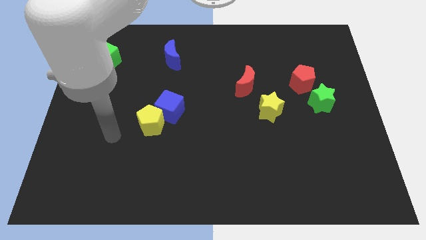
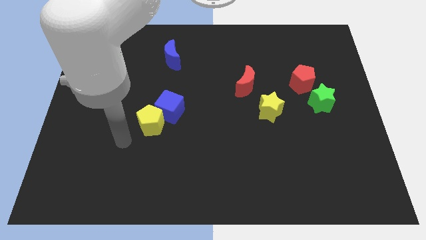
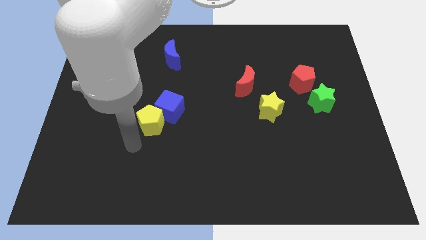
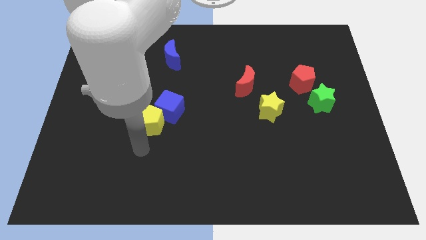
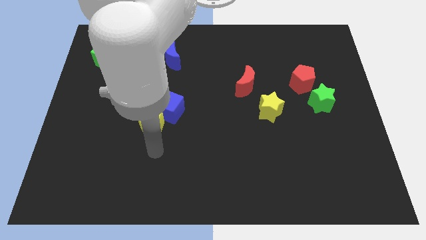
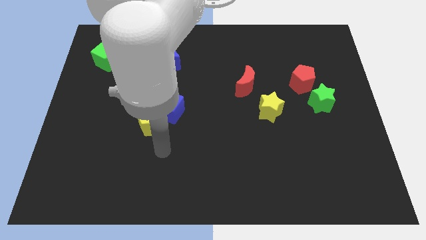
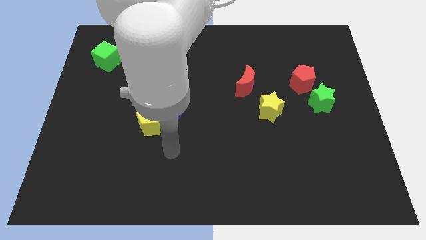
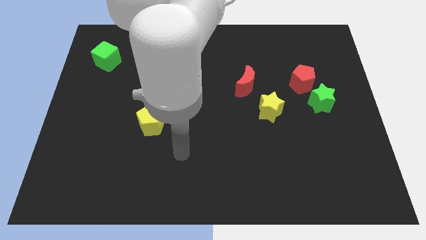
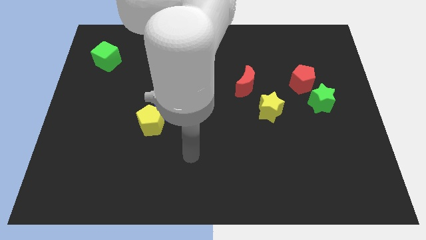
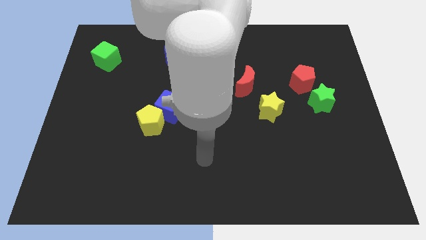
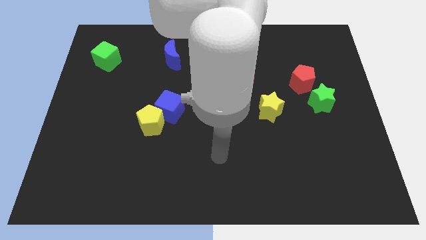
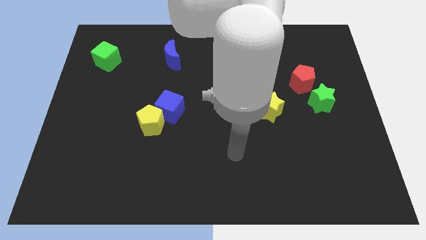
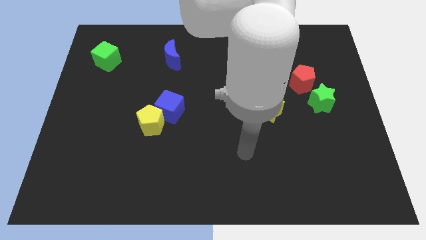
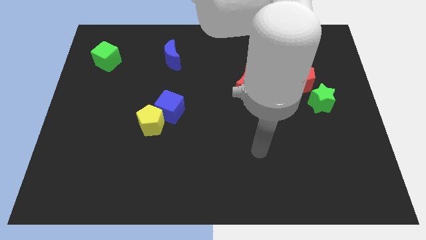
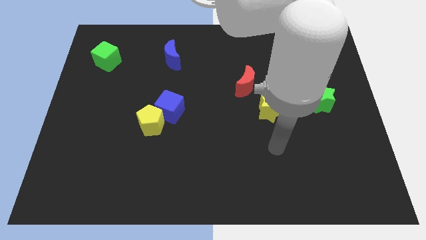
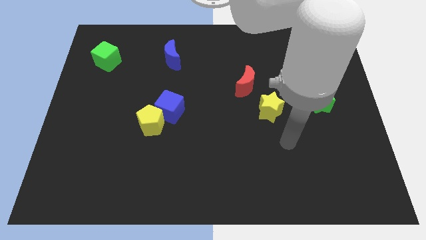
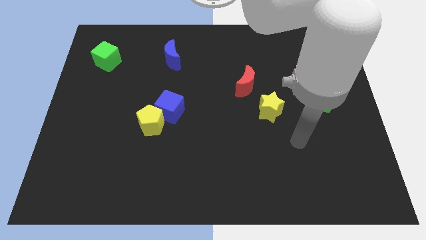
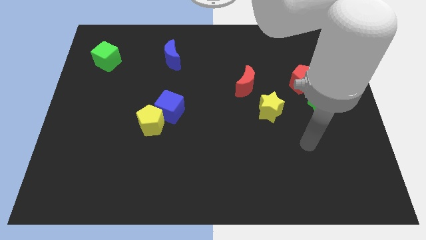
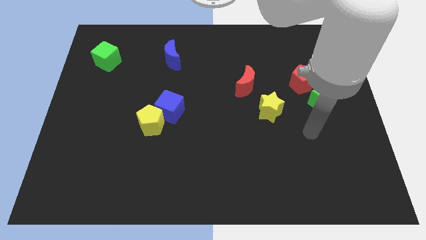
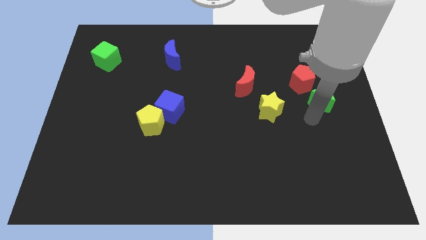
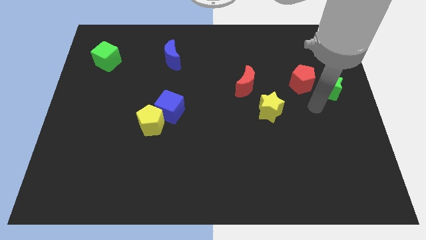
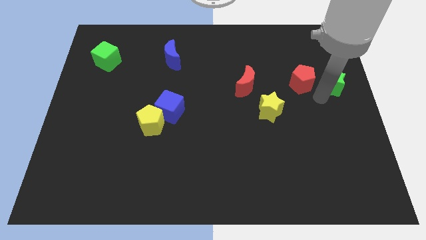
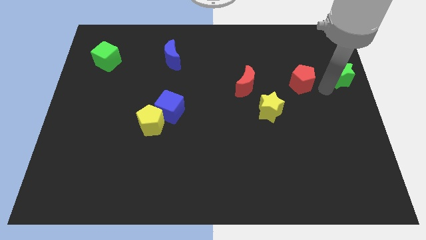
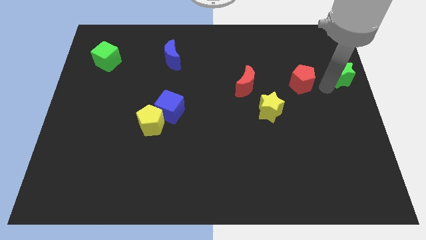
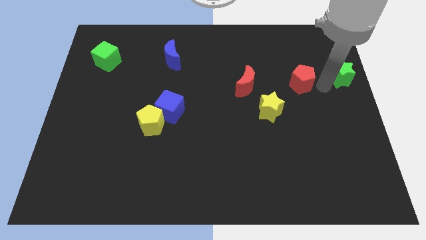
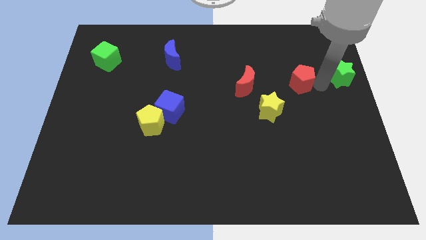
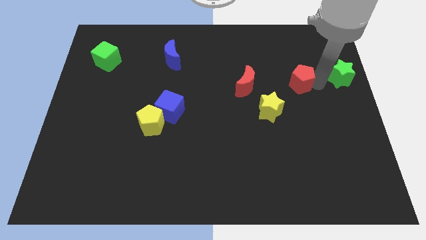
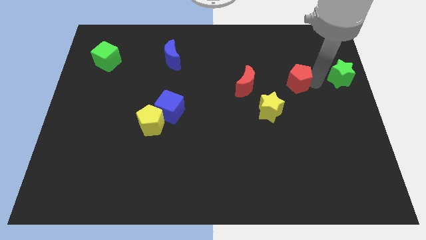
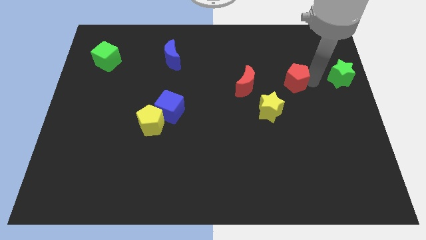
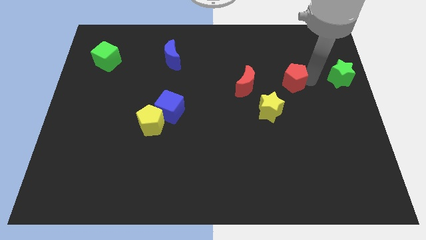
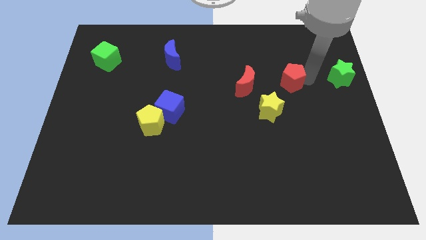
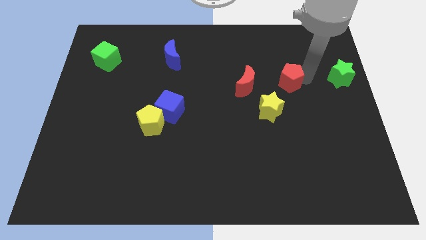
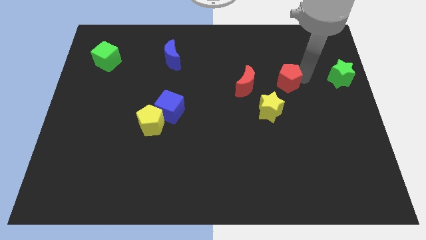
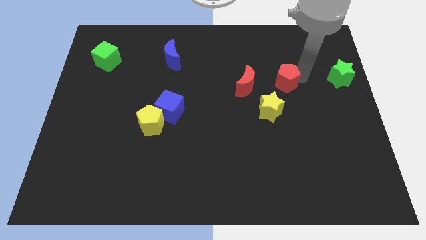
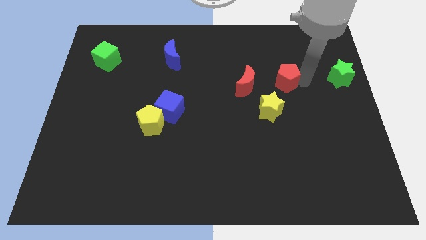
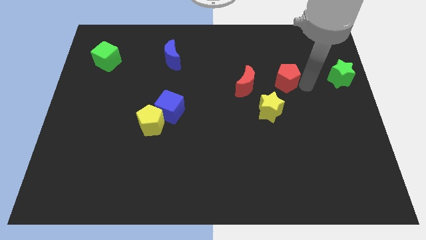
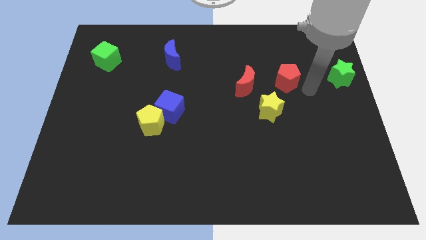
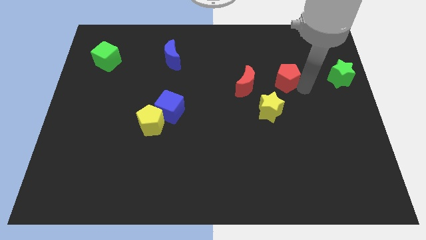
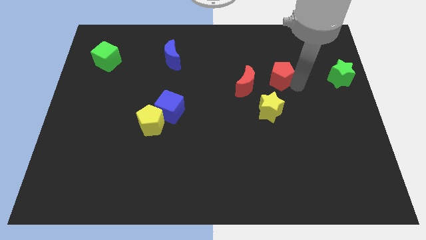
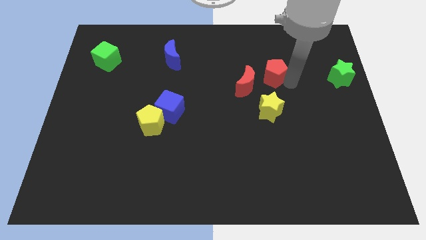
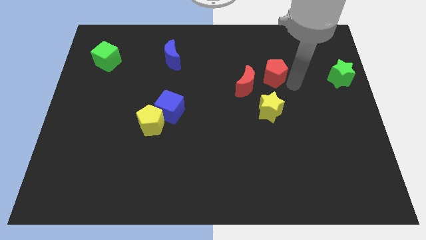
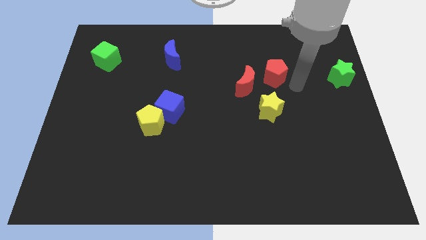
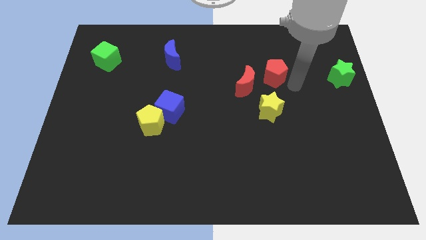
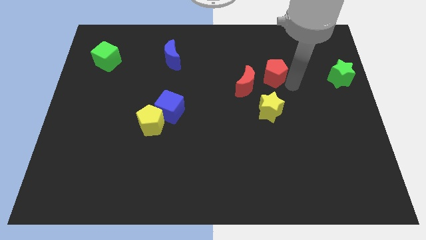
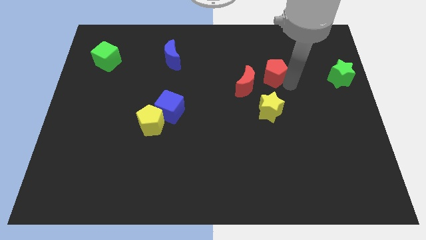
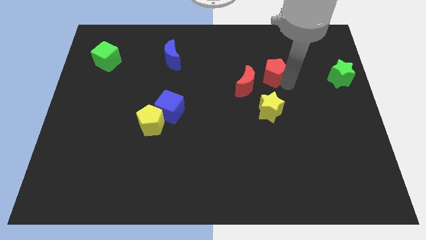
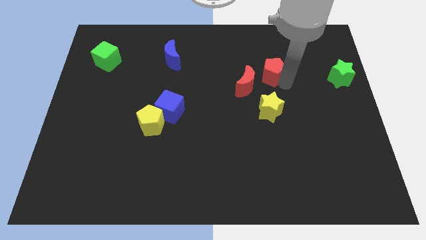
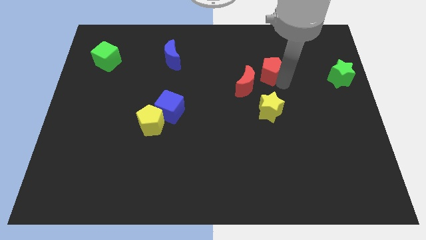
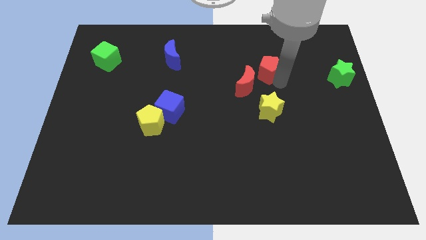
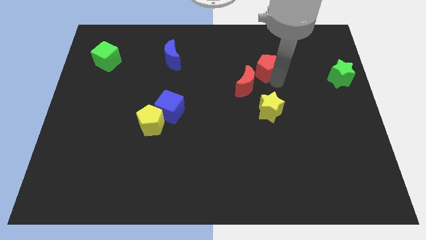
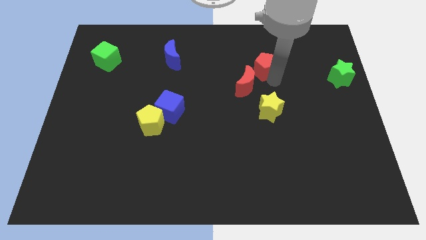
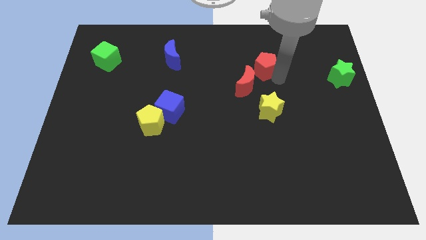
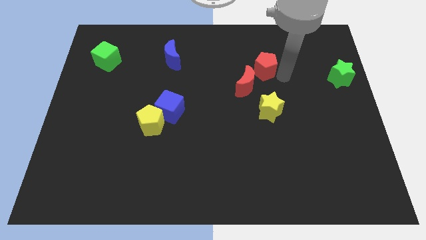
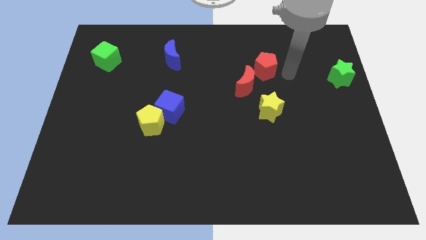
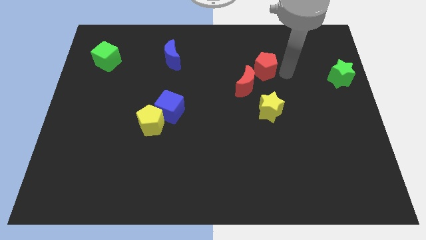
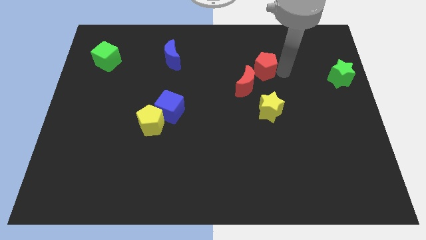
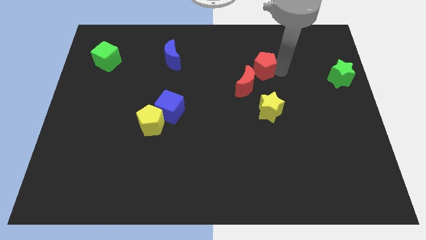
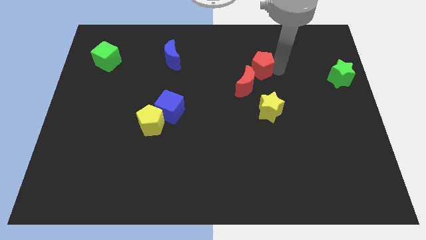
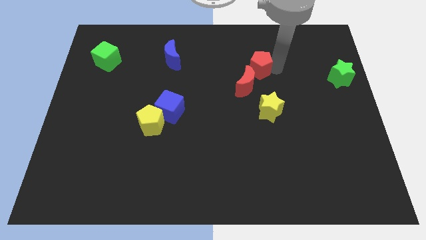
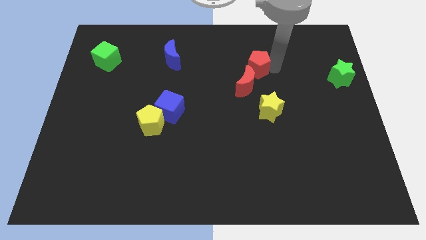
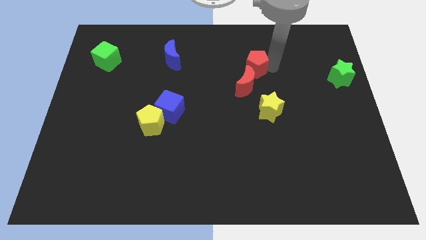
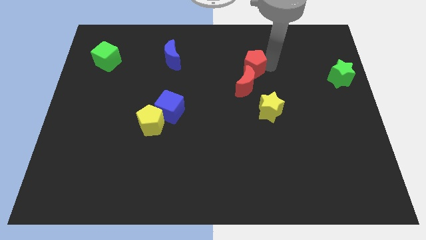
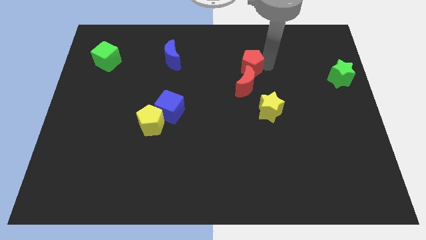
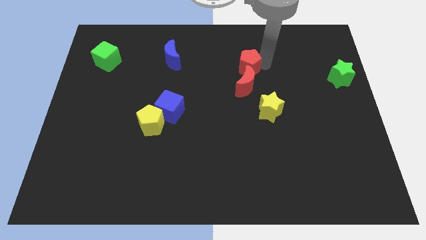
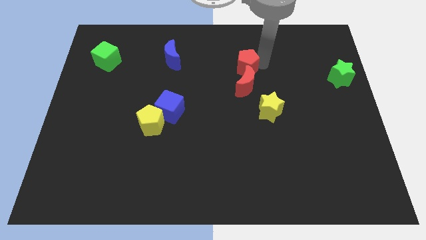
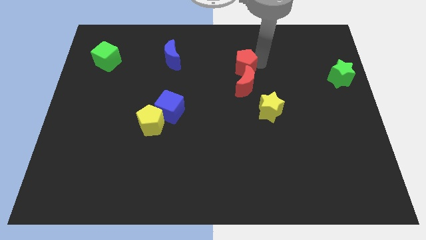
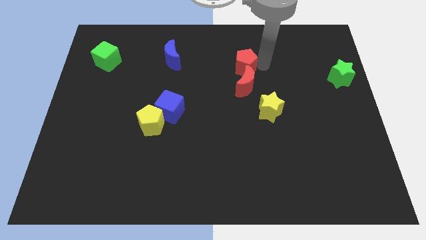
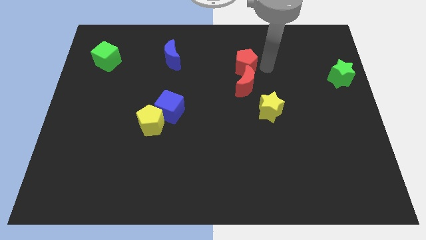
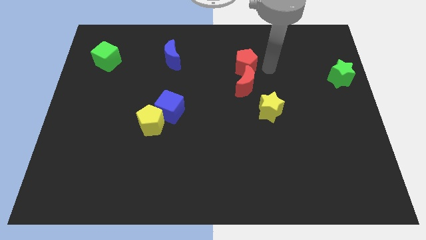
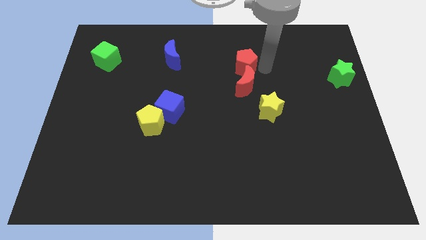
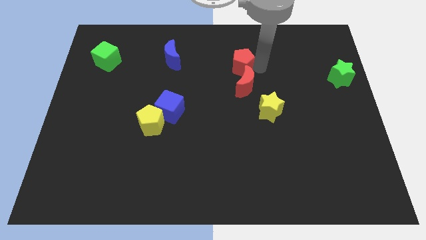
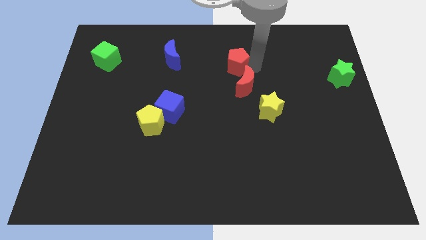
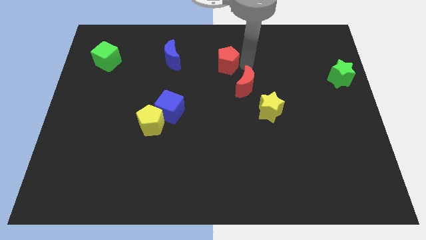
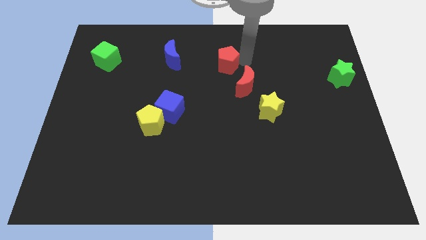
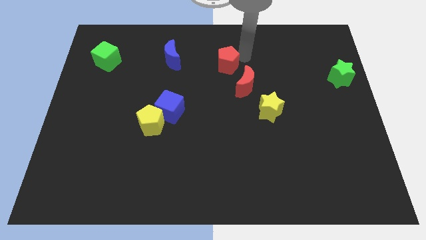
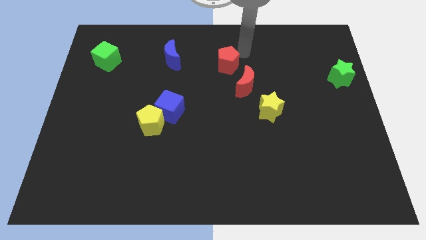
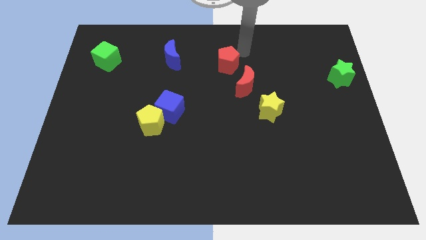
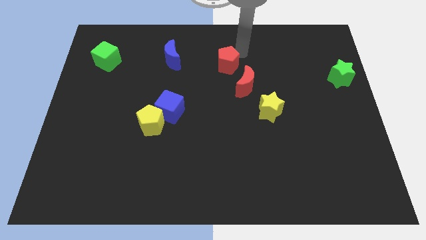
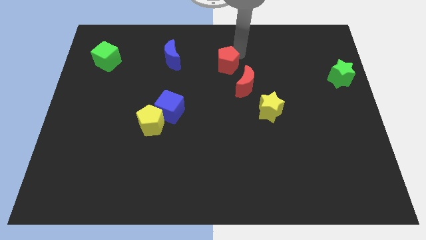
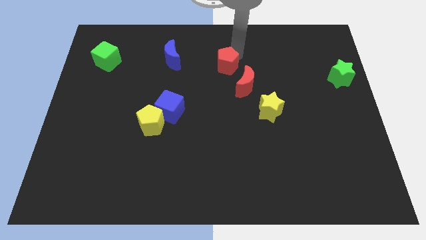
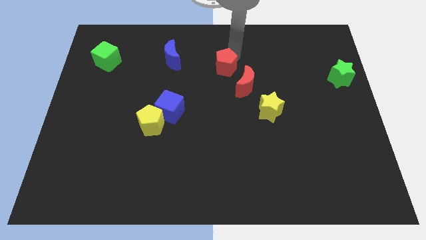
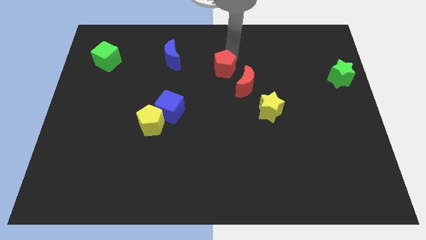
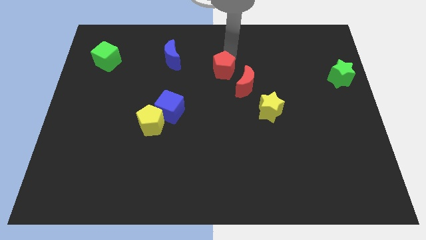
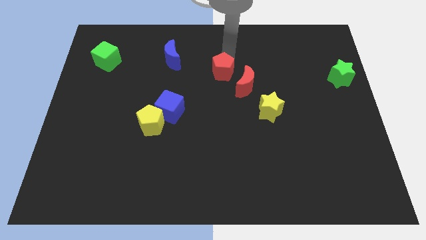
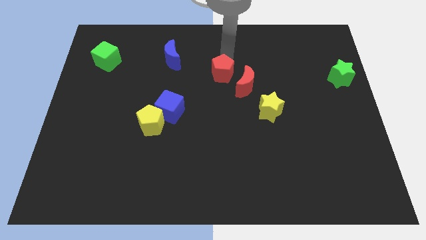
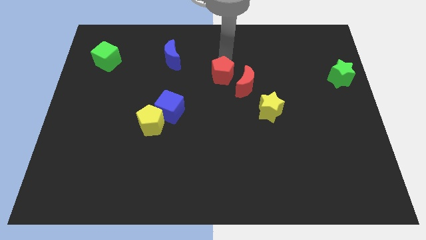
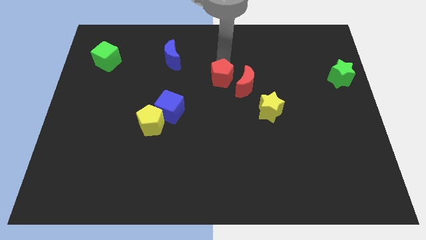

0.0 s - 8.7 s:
move the red pentagon left
